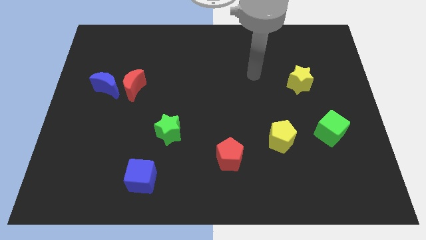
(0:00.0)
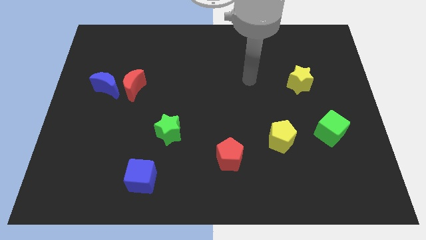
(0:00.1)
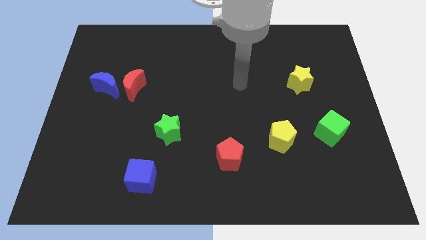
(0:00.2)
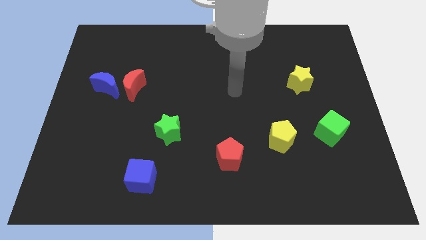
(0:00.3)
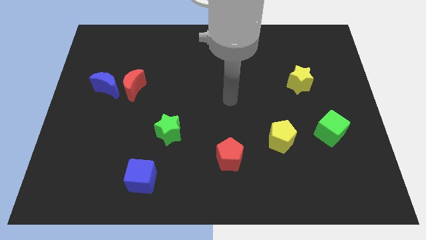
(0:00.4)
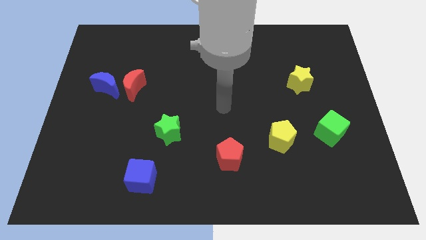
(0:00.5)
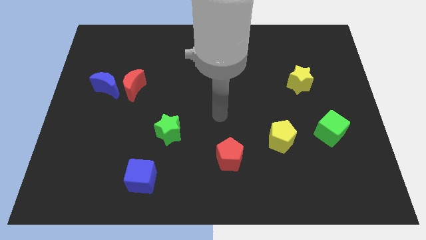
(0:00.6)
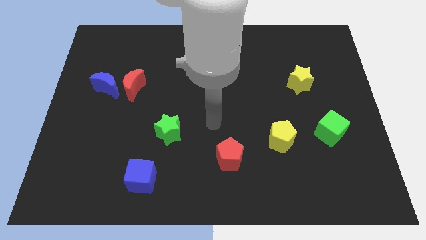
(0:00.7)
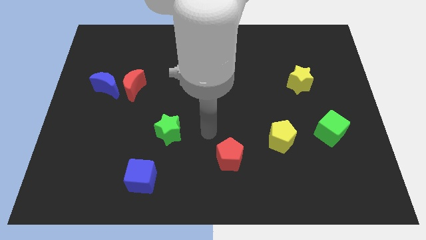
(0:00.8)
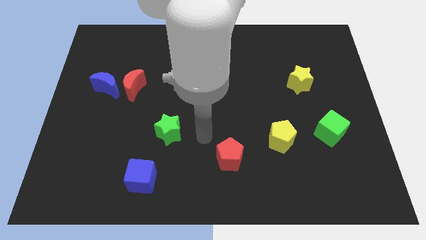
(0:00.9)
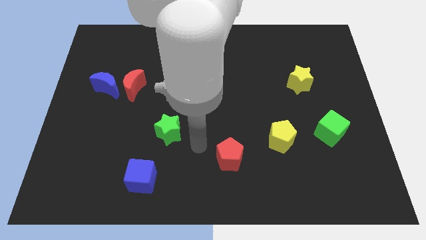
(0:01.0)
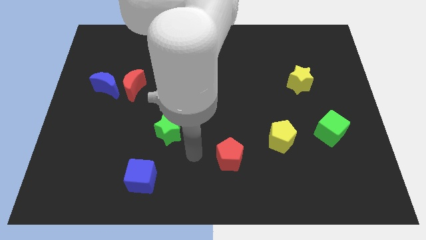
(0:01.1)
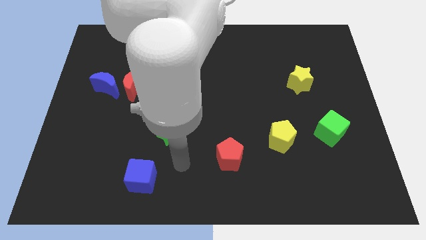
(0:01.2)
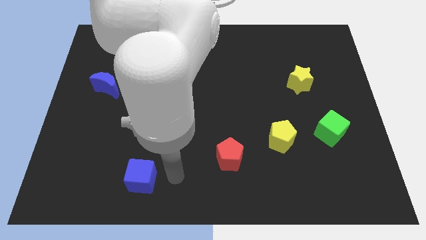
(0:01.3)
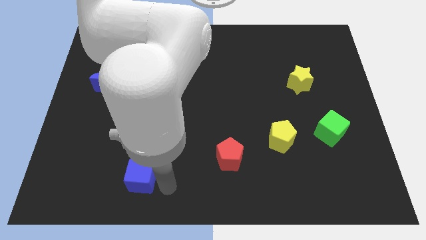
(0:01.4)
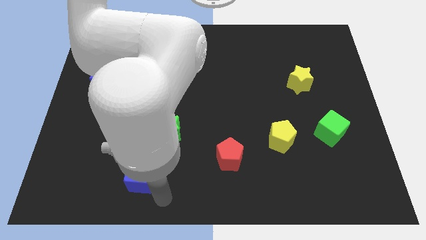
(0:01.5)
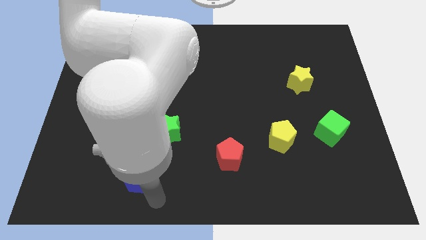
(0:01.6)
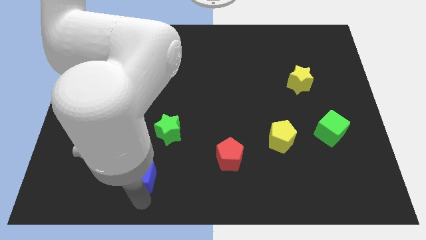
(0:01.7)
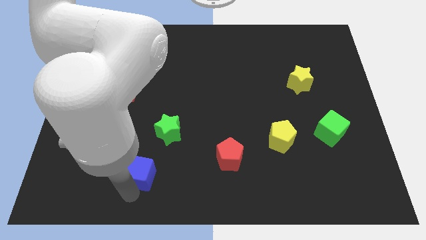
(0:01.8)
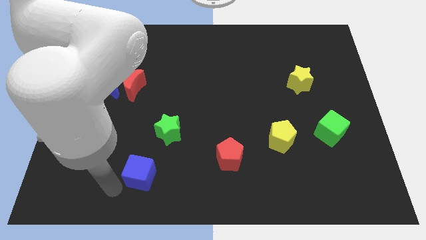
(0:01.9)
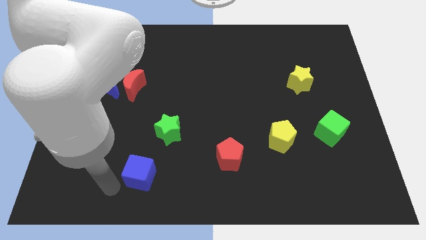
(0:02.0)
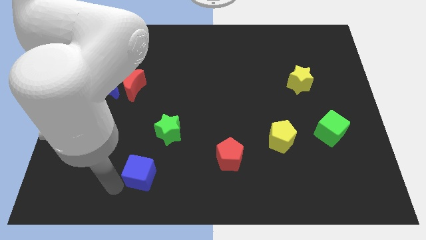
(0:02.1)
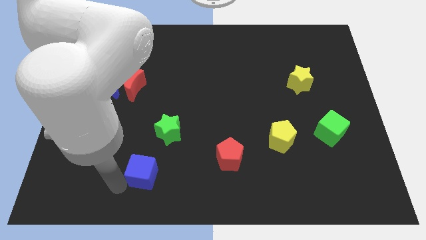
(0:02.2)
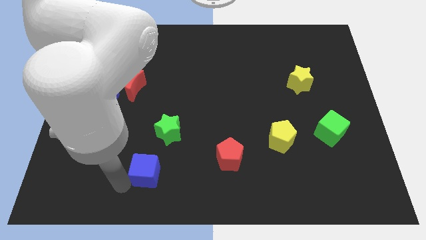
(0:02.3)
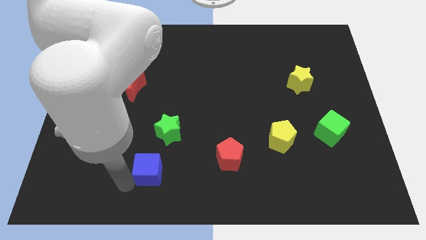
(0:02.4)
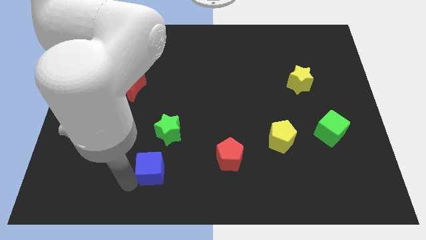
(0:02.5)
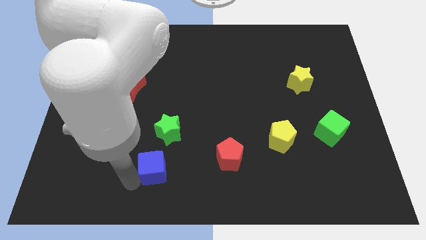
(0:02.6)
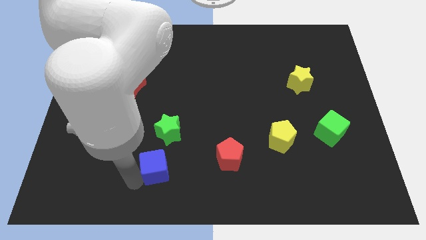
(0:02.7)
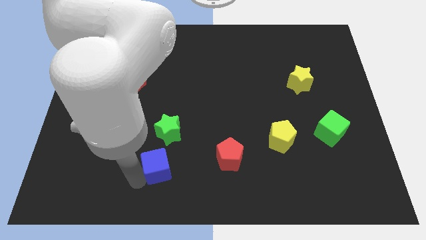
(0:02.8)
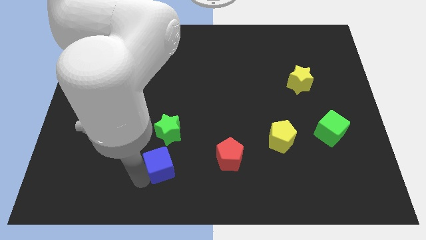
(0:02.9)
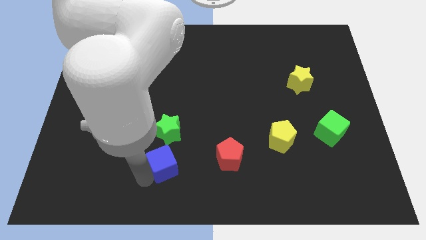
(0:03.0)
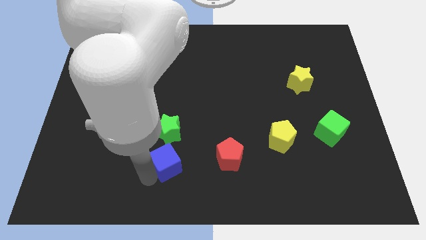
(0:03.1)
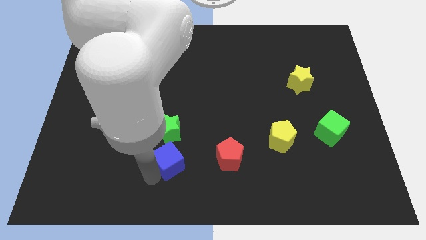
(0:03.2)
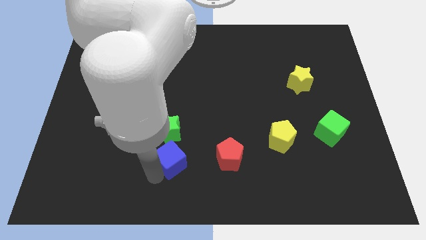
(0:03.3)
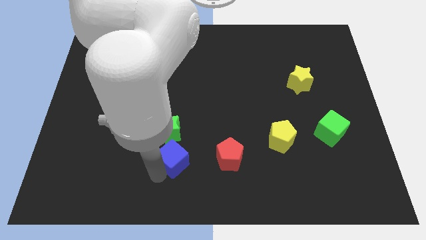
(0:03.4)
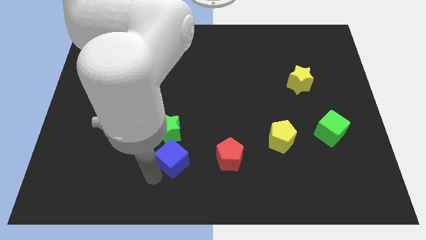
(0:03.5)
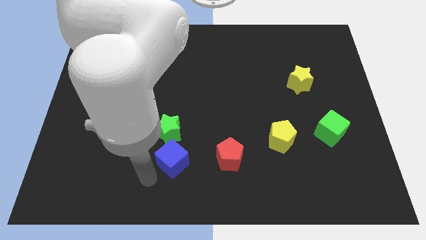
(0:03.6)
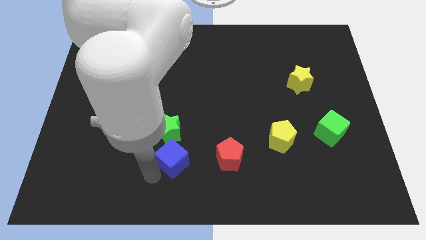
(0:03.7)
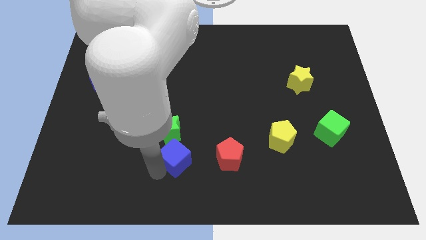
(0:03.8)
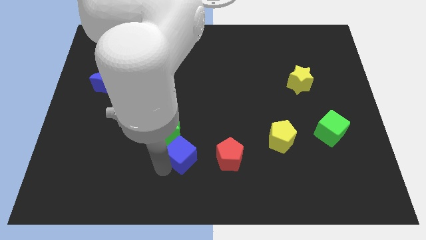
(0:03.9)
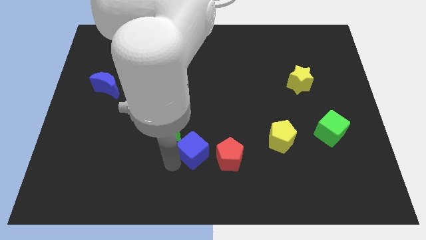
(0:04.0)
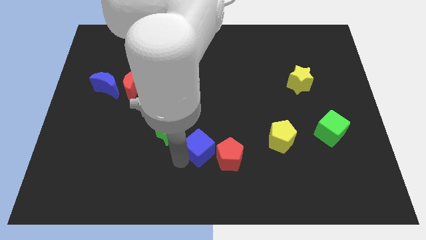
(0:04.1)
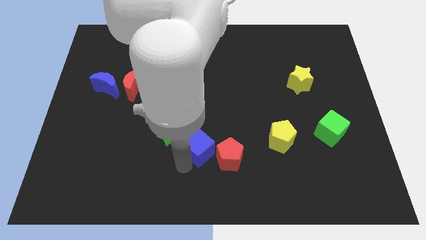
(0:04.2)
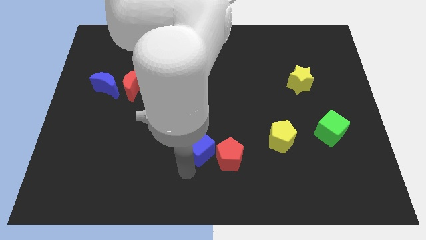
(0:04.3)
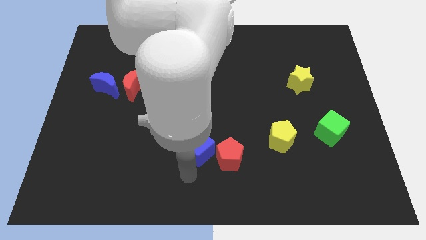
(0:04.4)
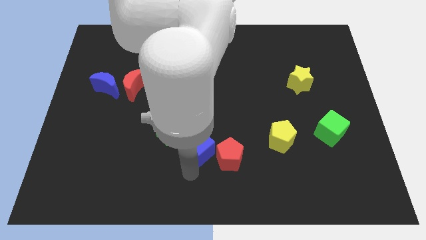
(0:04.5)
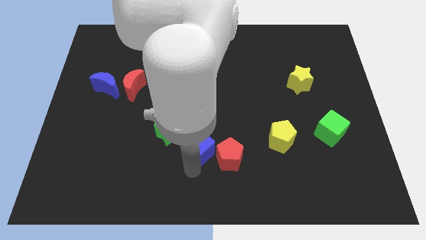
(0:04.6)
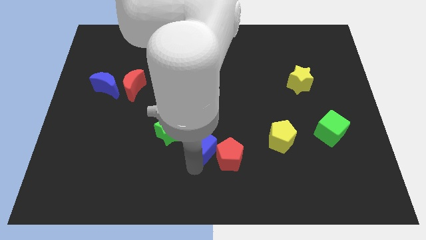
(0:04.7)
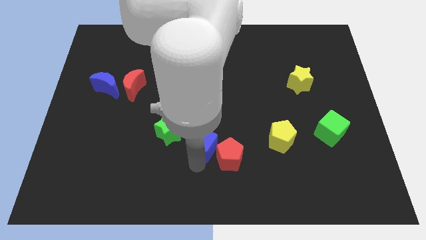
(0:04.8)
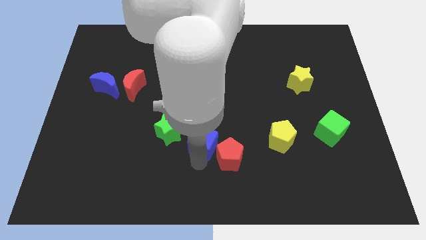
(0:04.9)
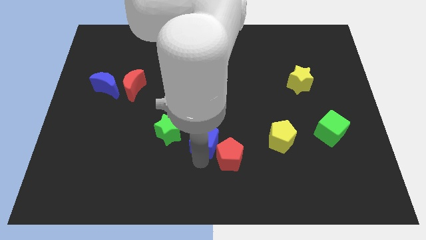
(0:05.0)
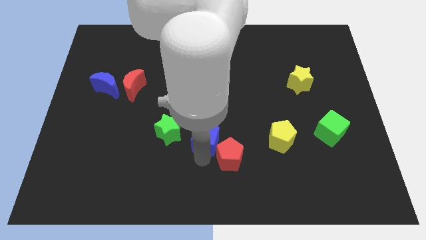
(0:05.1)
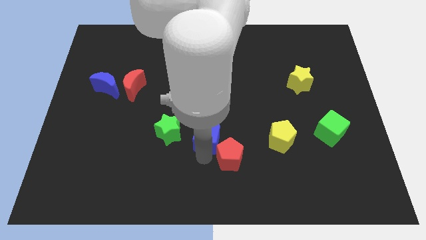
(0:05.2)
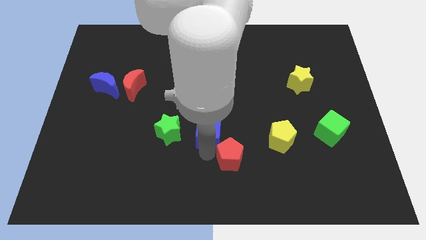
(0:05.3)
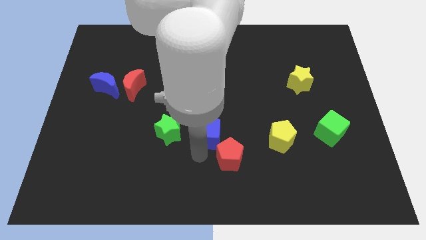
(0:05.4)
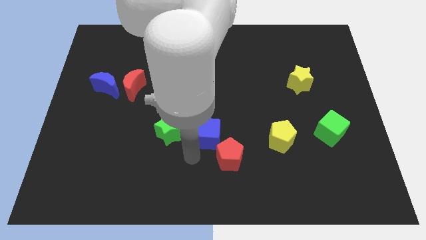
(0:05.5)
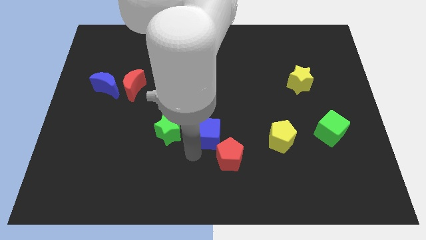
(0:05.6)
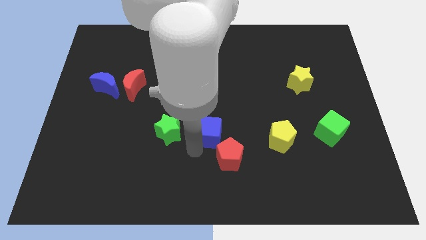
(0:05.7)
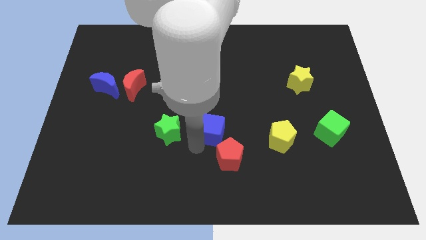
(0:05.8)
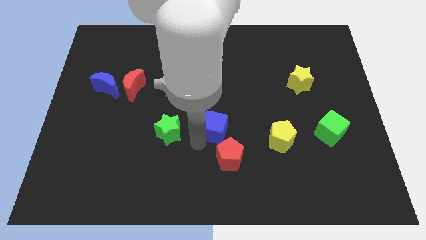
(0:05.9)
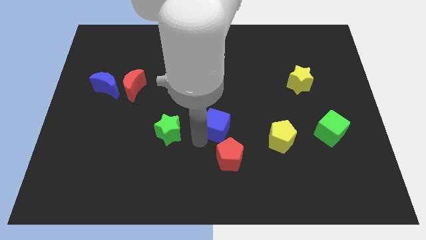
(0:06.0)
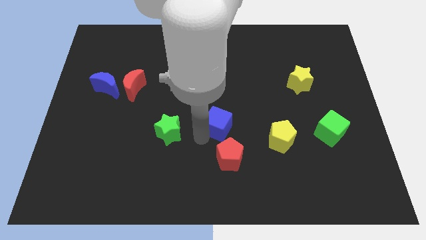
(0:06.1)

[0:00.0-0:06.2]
push the blue cube up and right

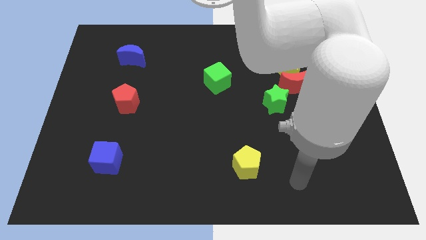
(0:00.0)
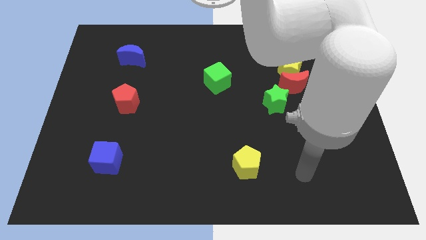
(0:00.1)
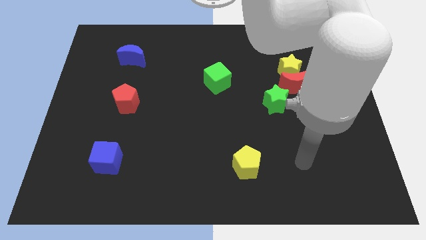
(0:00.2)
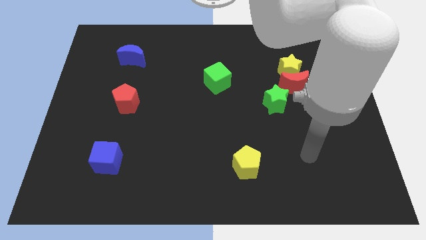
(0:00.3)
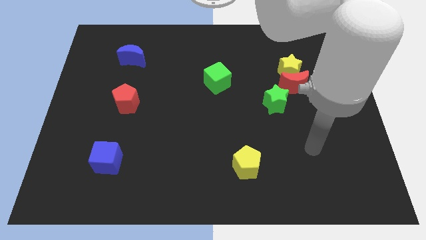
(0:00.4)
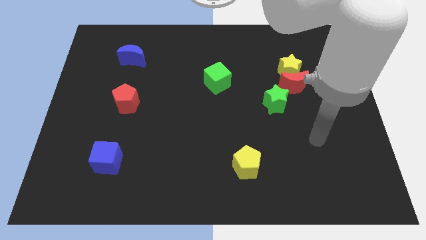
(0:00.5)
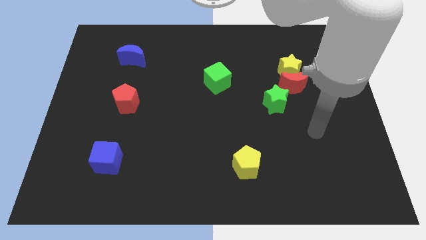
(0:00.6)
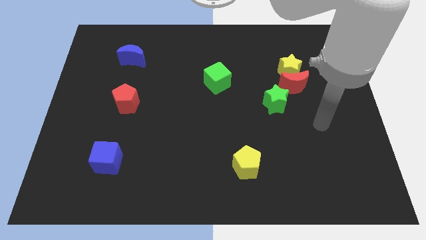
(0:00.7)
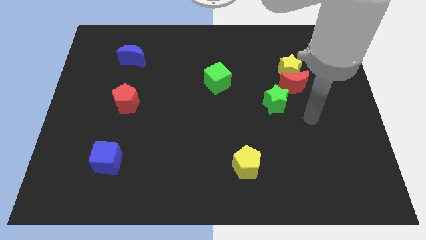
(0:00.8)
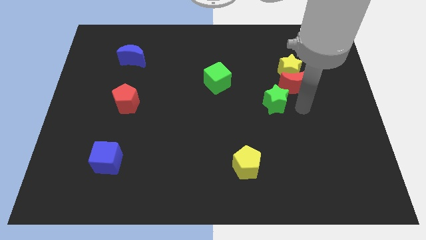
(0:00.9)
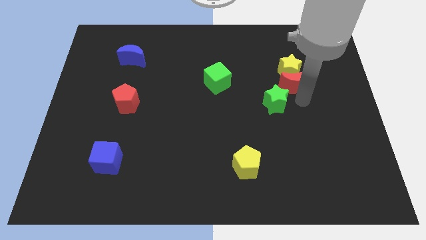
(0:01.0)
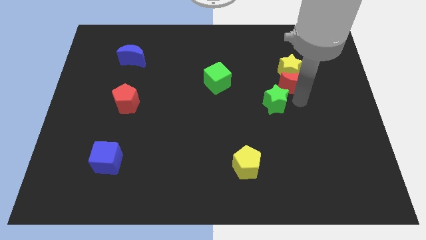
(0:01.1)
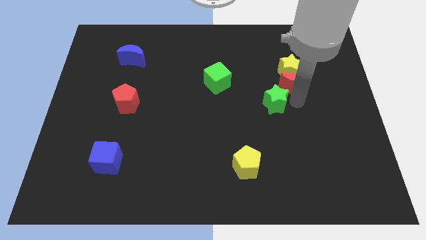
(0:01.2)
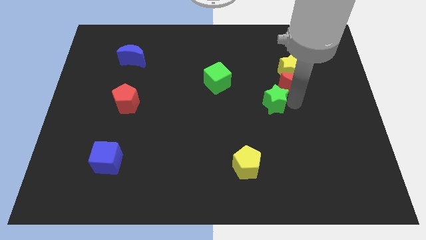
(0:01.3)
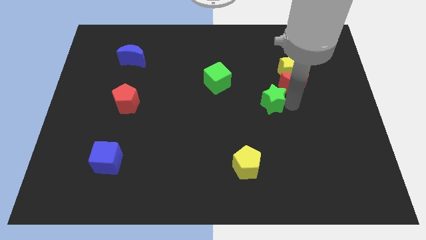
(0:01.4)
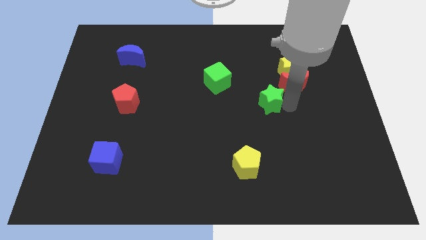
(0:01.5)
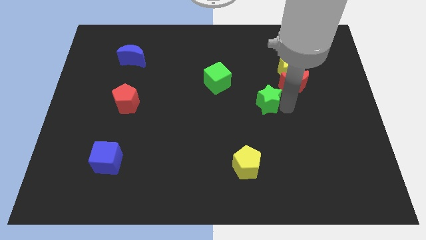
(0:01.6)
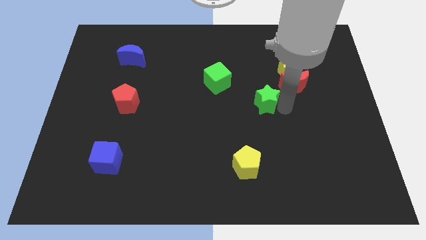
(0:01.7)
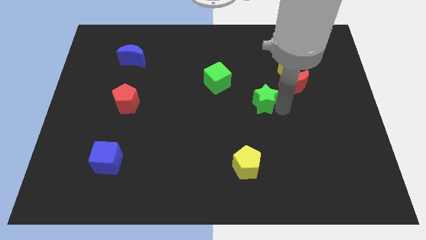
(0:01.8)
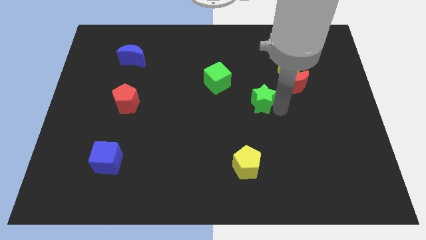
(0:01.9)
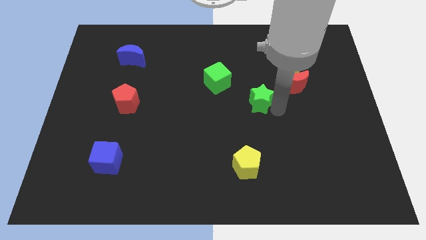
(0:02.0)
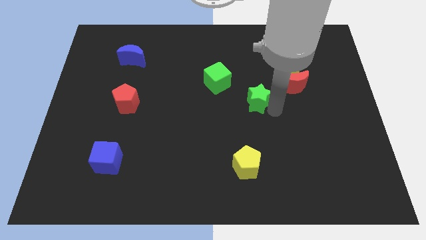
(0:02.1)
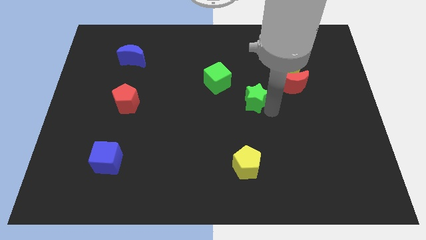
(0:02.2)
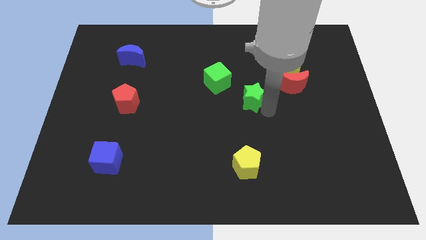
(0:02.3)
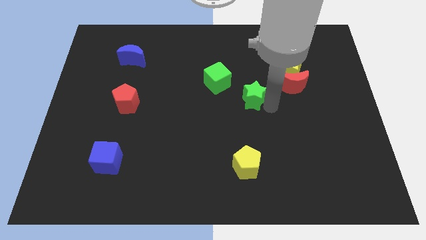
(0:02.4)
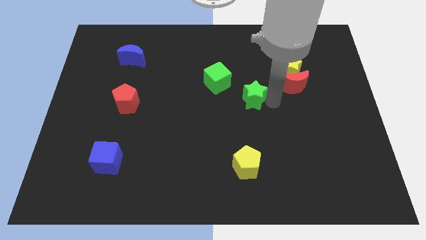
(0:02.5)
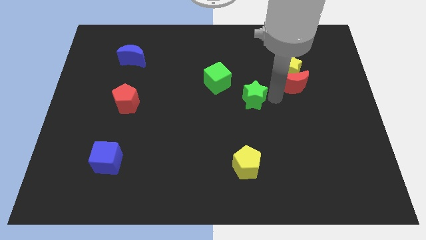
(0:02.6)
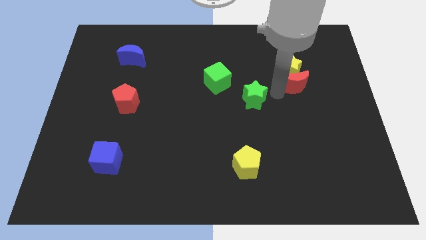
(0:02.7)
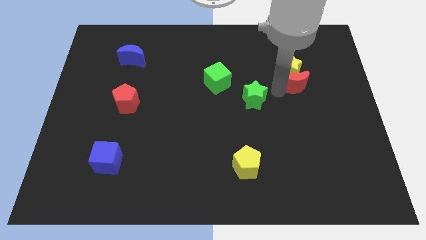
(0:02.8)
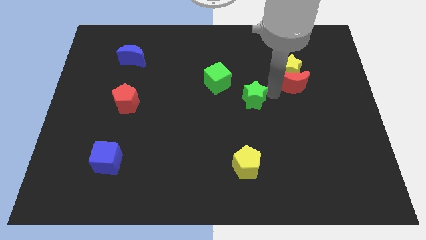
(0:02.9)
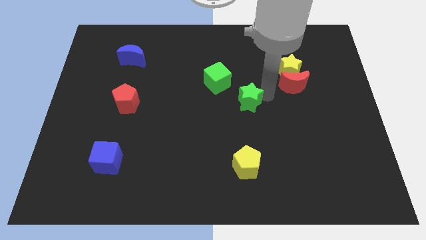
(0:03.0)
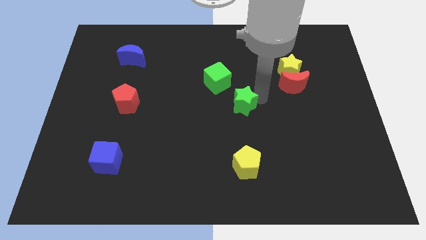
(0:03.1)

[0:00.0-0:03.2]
slide the green star a little to the left
